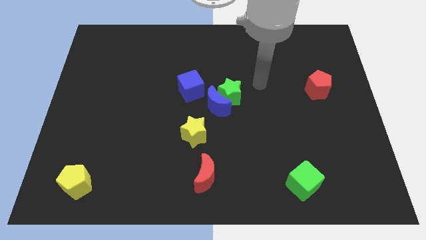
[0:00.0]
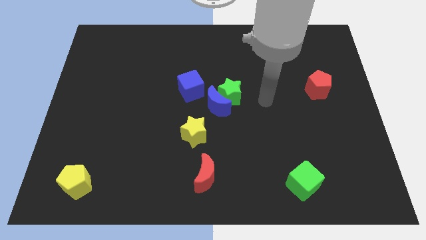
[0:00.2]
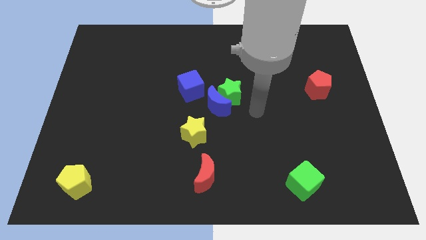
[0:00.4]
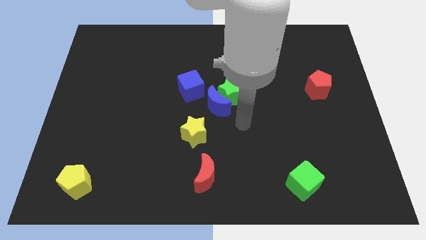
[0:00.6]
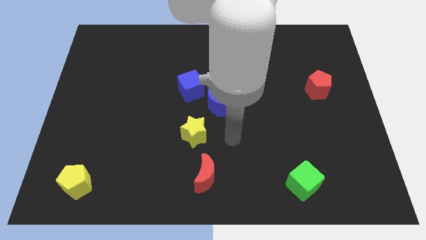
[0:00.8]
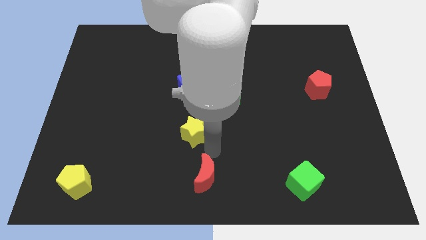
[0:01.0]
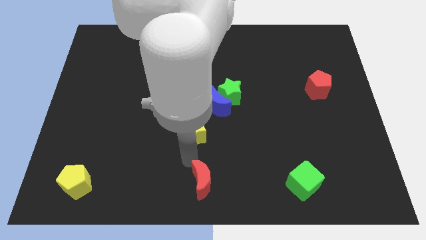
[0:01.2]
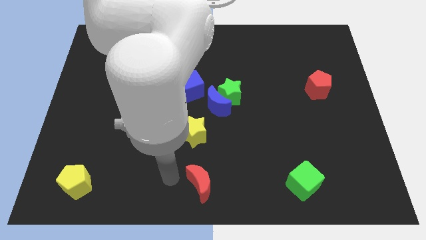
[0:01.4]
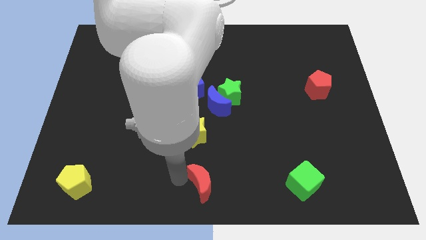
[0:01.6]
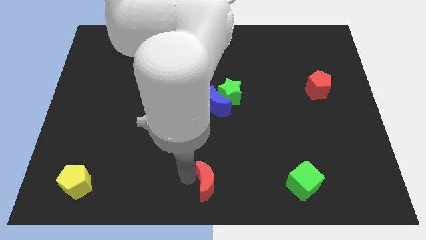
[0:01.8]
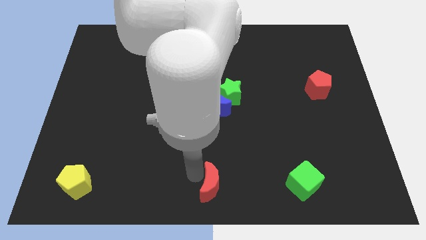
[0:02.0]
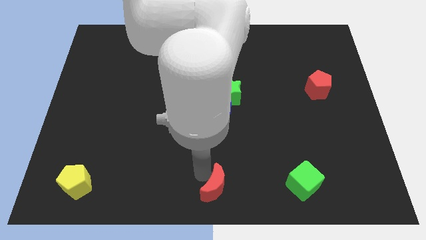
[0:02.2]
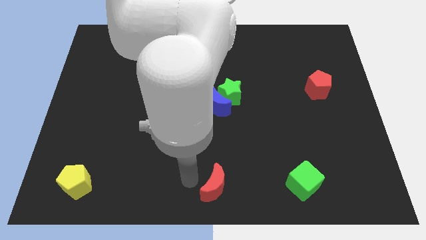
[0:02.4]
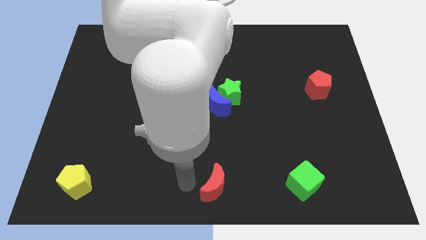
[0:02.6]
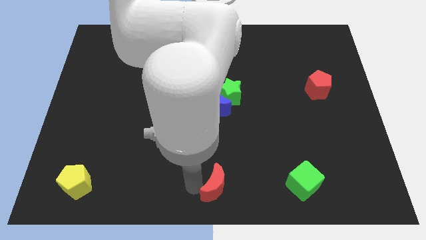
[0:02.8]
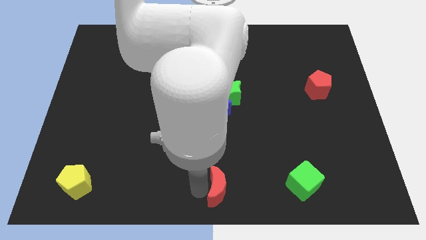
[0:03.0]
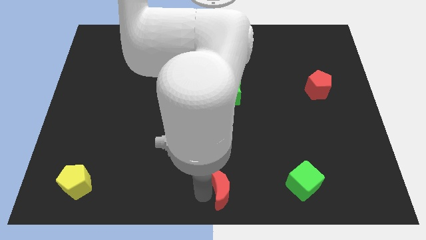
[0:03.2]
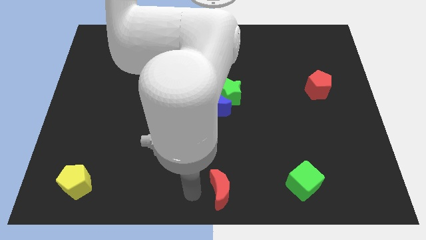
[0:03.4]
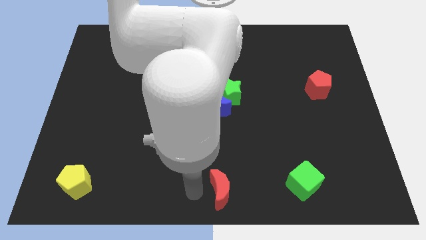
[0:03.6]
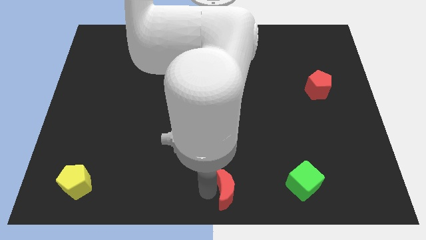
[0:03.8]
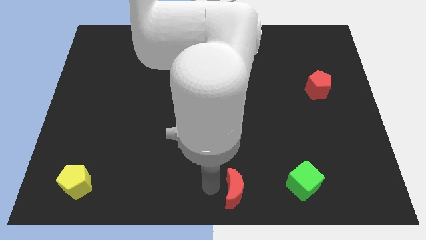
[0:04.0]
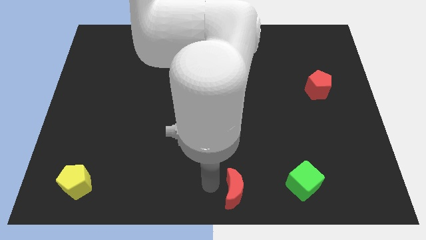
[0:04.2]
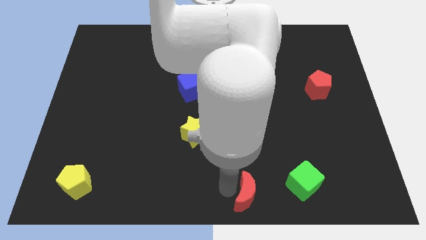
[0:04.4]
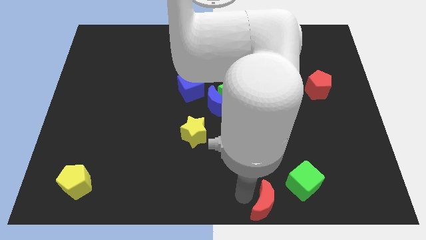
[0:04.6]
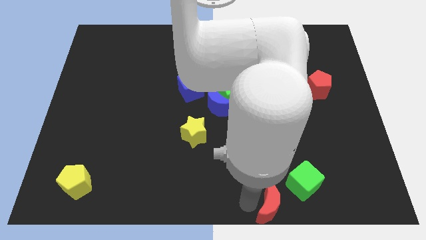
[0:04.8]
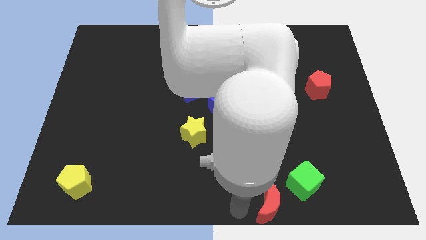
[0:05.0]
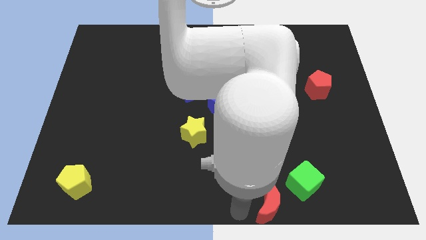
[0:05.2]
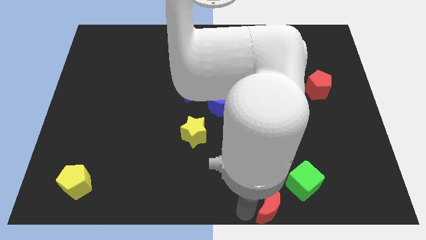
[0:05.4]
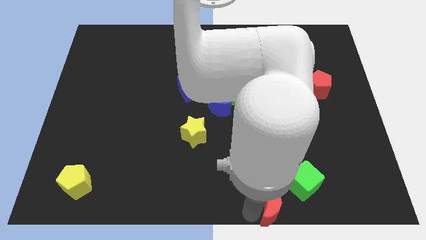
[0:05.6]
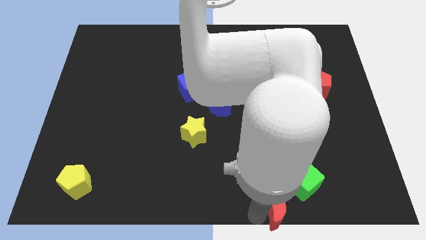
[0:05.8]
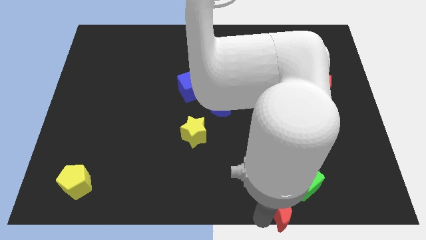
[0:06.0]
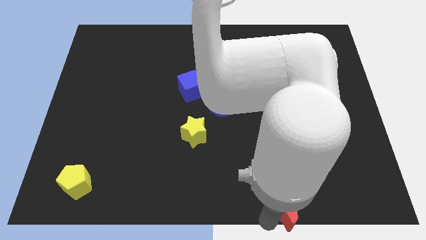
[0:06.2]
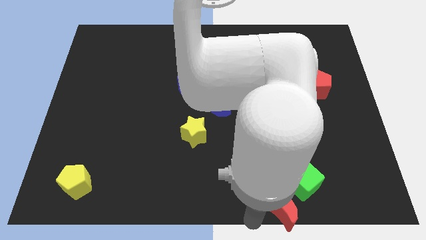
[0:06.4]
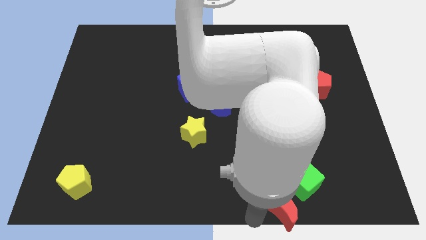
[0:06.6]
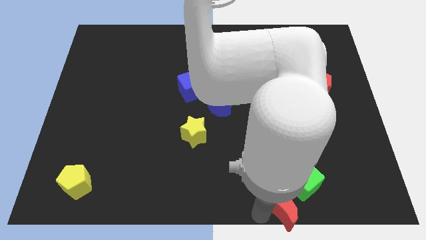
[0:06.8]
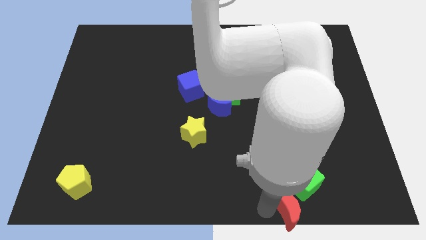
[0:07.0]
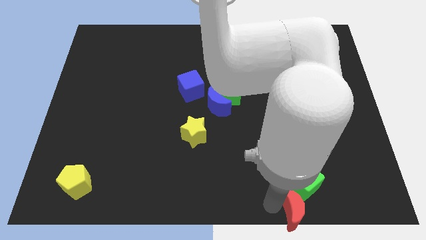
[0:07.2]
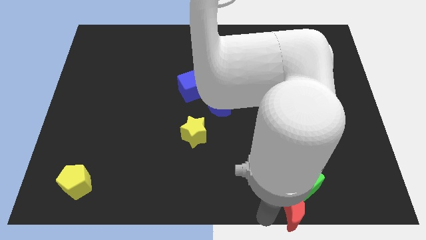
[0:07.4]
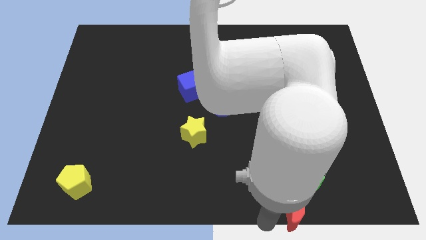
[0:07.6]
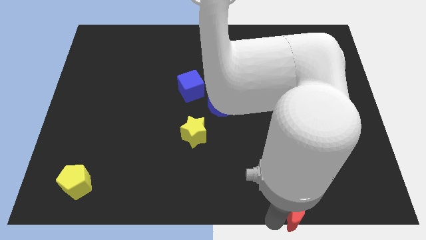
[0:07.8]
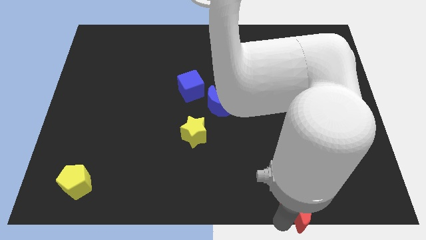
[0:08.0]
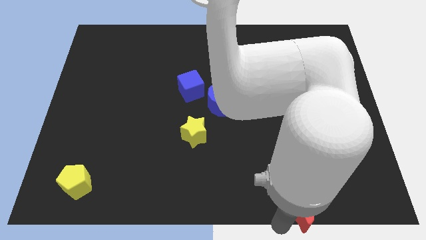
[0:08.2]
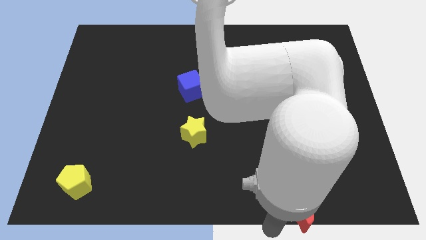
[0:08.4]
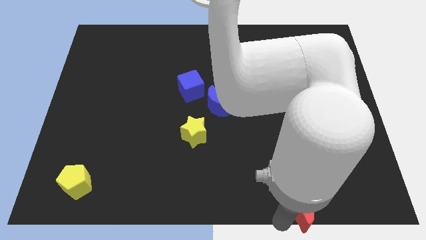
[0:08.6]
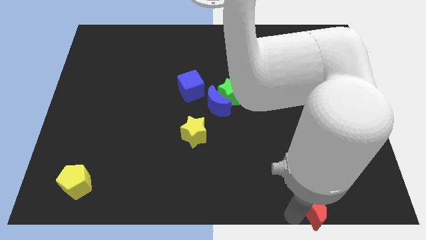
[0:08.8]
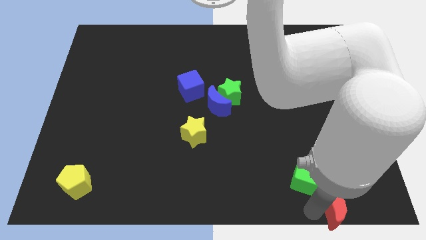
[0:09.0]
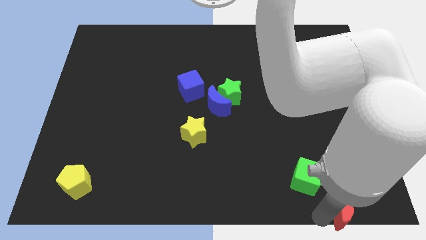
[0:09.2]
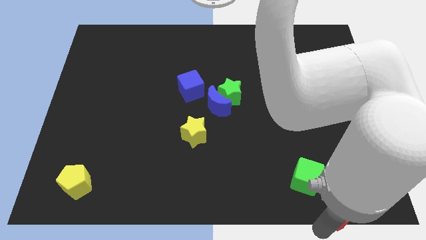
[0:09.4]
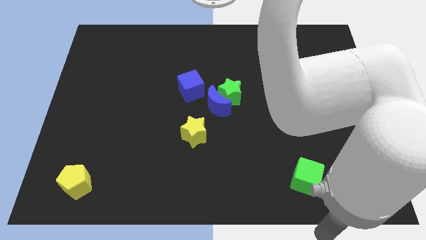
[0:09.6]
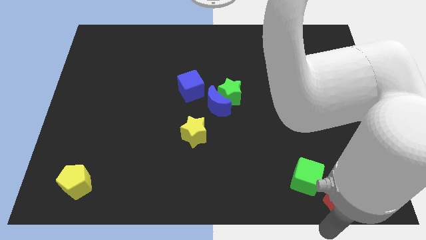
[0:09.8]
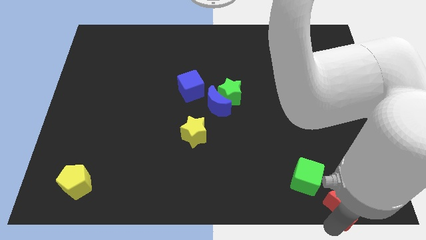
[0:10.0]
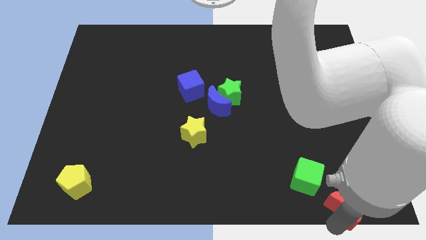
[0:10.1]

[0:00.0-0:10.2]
push the red moon to the bottom right

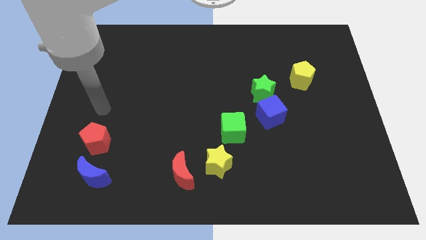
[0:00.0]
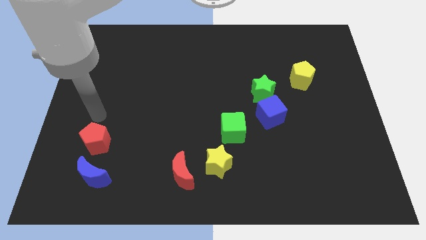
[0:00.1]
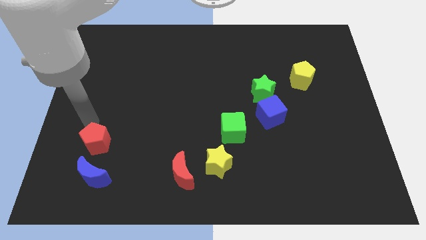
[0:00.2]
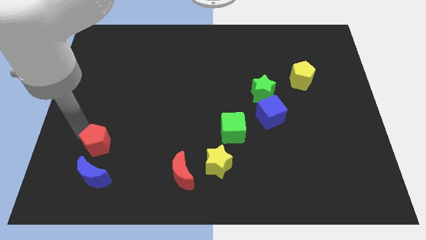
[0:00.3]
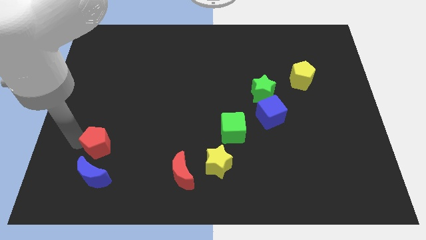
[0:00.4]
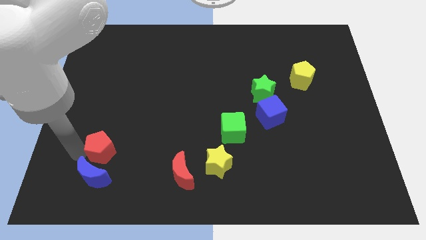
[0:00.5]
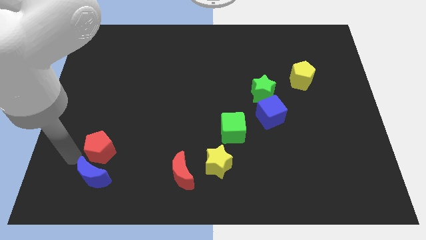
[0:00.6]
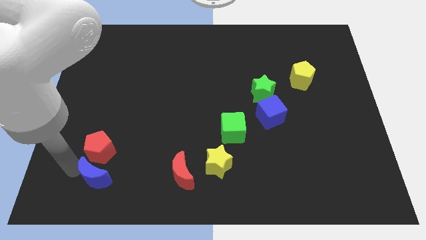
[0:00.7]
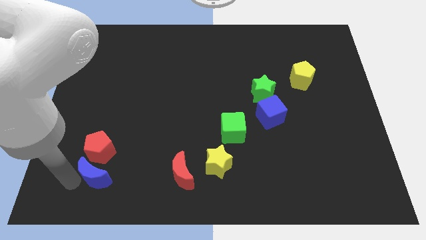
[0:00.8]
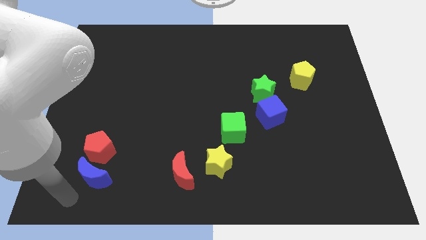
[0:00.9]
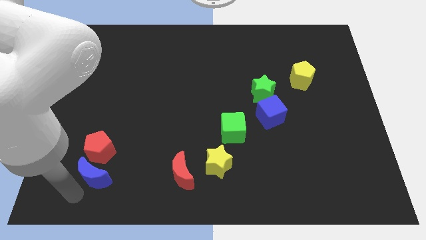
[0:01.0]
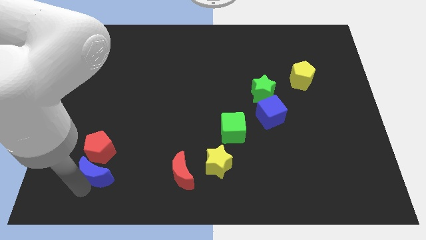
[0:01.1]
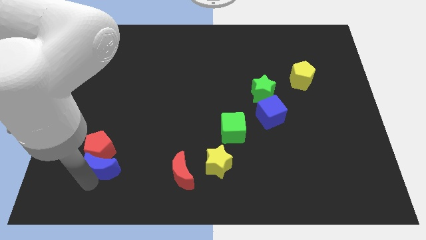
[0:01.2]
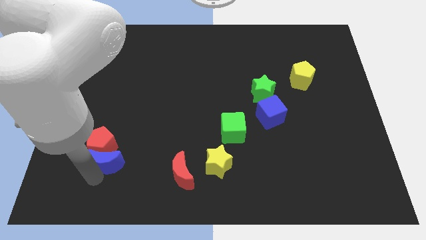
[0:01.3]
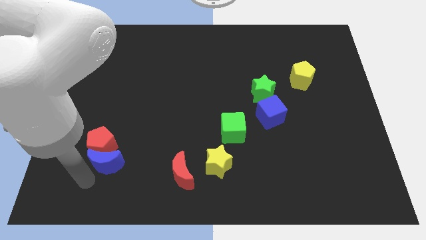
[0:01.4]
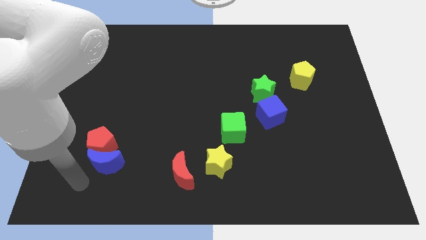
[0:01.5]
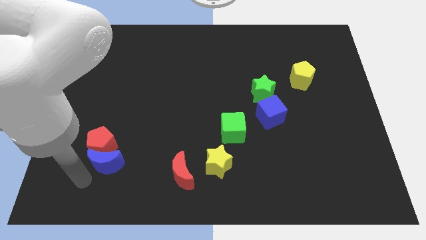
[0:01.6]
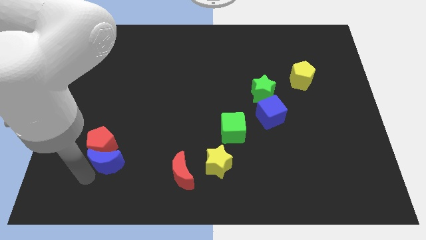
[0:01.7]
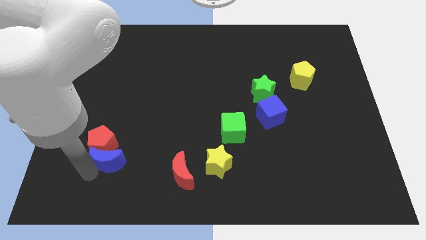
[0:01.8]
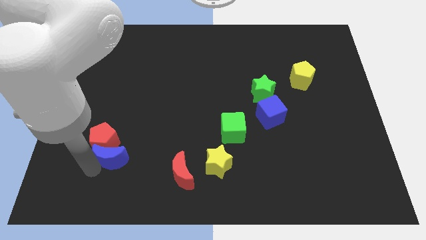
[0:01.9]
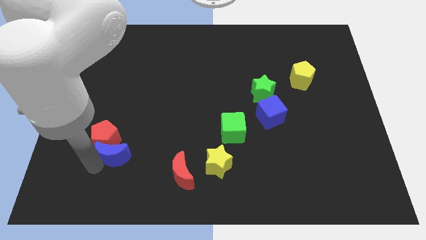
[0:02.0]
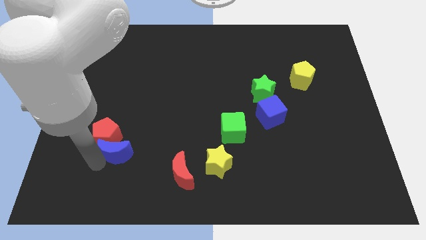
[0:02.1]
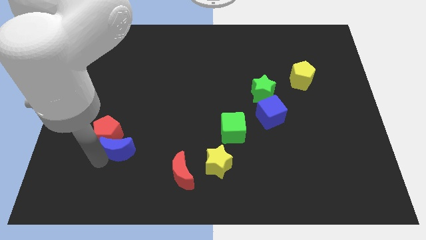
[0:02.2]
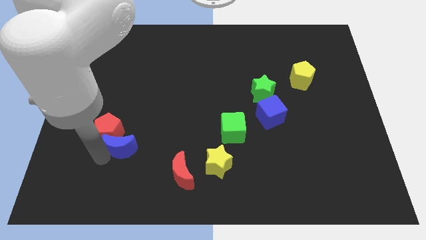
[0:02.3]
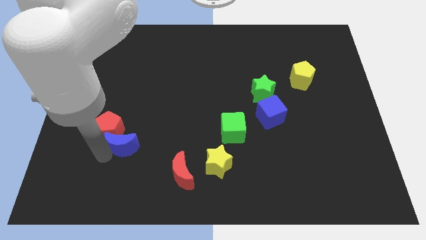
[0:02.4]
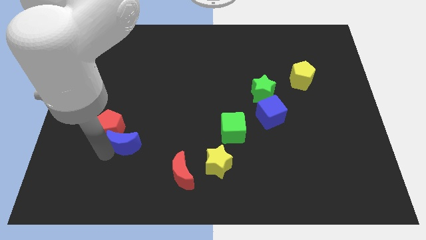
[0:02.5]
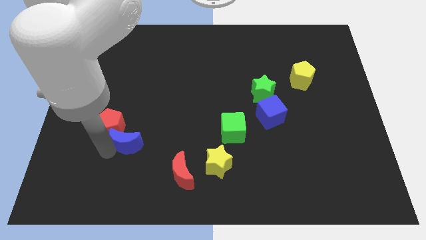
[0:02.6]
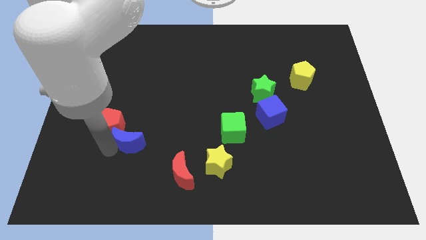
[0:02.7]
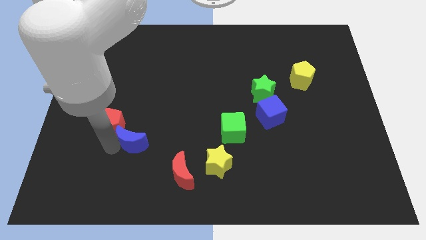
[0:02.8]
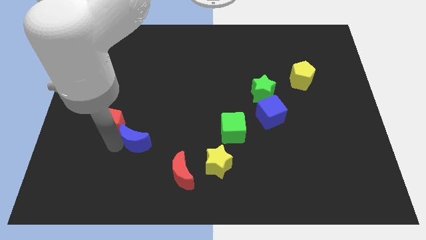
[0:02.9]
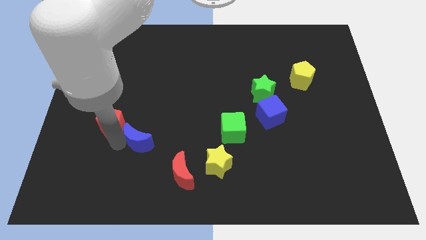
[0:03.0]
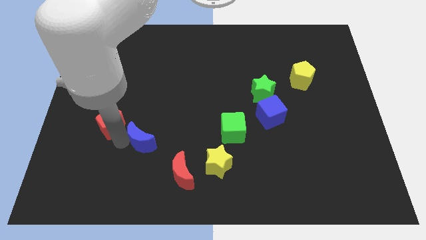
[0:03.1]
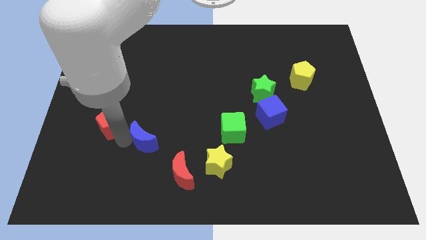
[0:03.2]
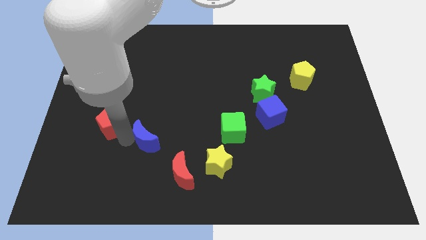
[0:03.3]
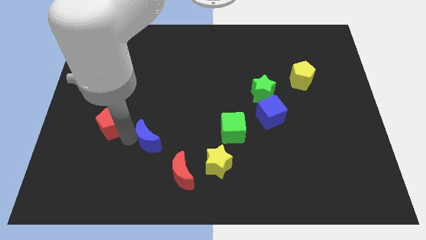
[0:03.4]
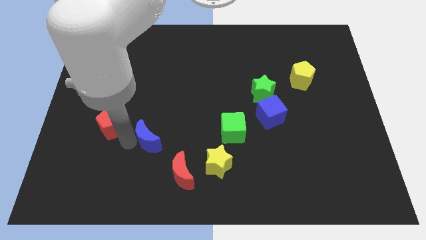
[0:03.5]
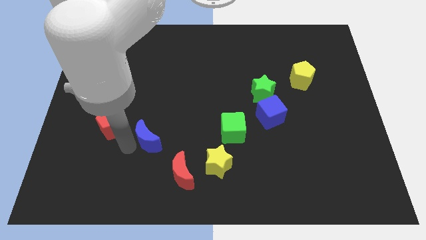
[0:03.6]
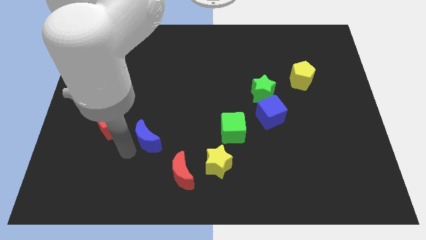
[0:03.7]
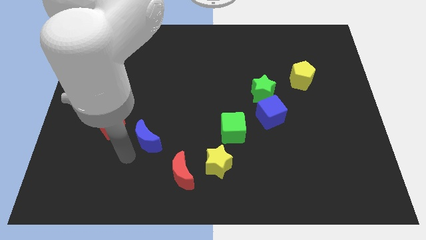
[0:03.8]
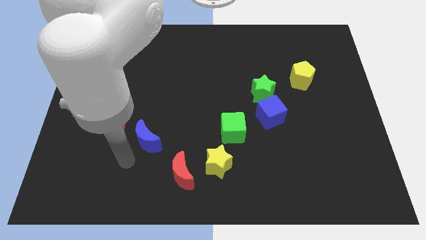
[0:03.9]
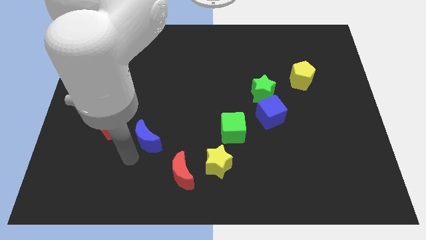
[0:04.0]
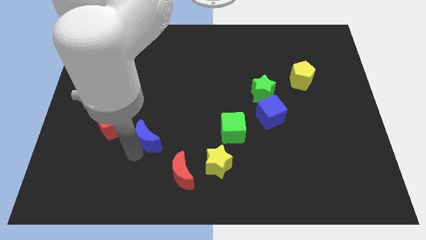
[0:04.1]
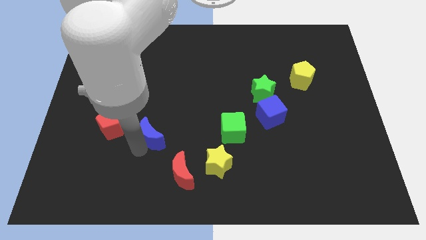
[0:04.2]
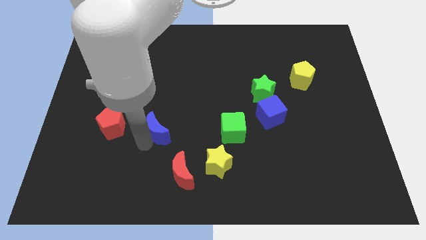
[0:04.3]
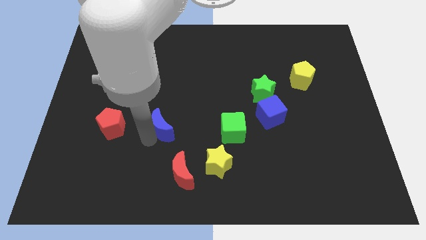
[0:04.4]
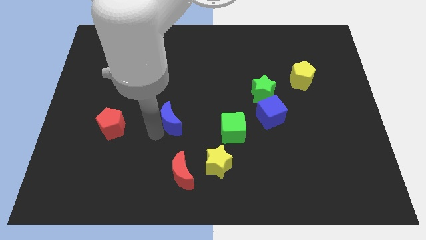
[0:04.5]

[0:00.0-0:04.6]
push the blue moon to the middle of the board
